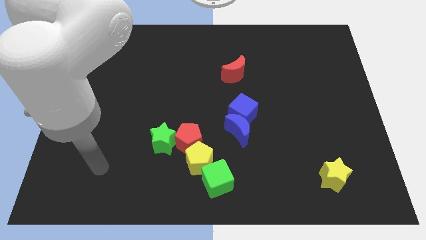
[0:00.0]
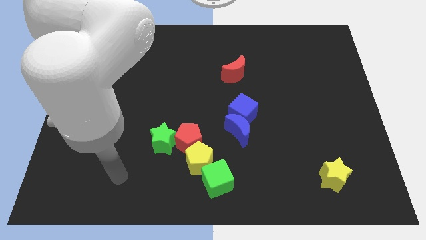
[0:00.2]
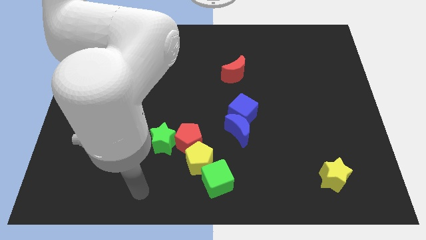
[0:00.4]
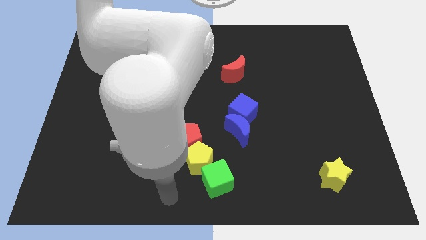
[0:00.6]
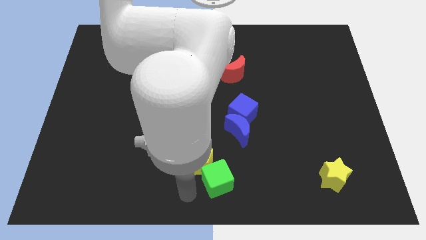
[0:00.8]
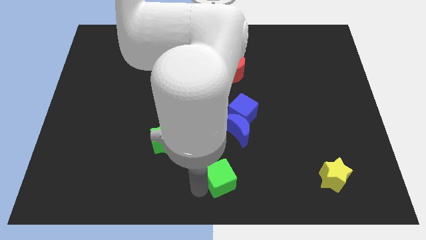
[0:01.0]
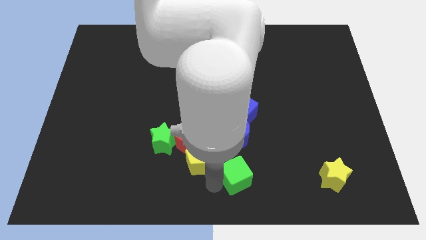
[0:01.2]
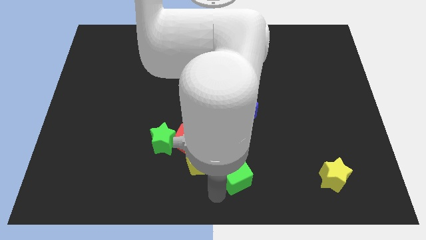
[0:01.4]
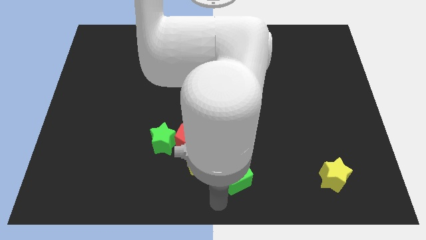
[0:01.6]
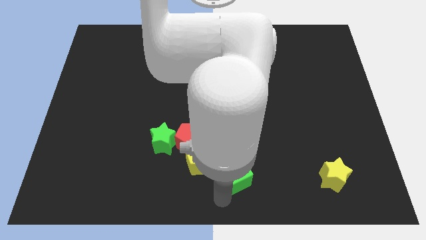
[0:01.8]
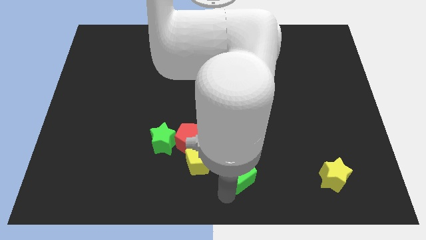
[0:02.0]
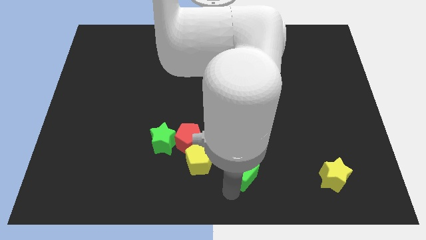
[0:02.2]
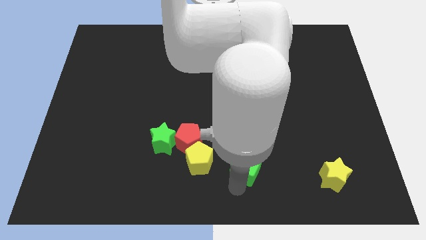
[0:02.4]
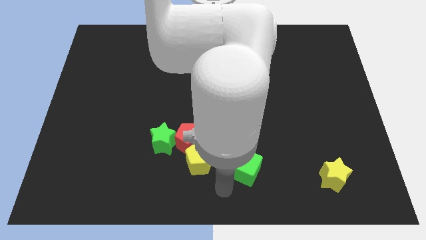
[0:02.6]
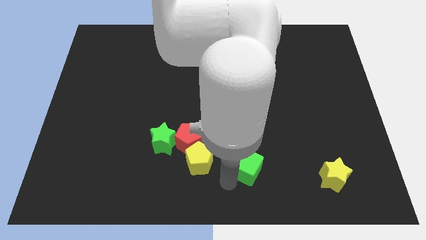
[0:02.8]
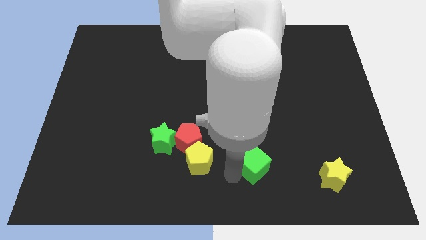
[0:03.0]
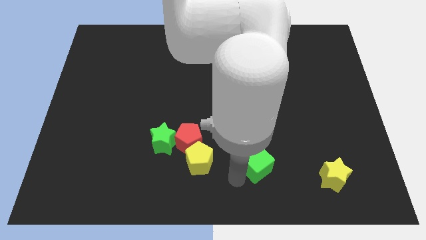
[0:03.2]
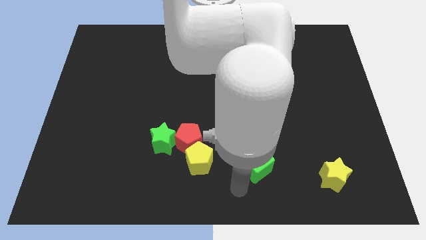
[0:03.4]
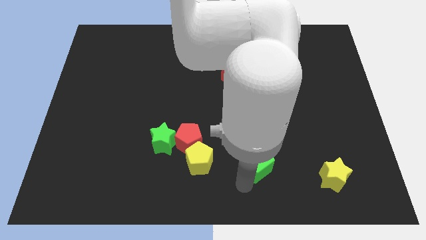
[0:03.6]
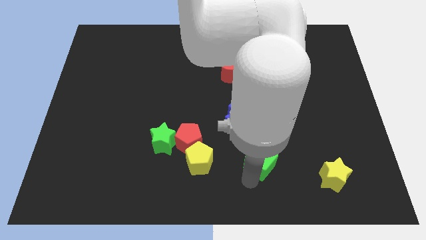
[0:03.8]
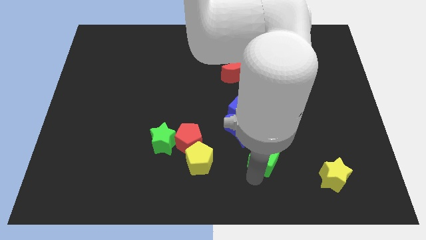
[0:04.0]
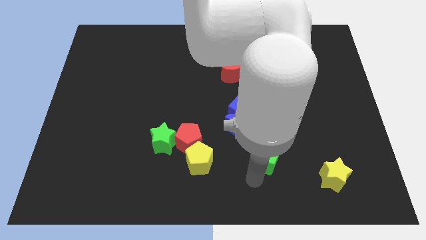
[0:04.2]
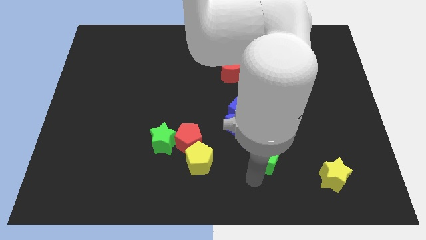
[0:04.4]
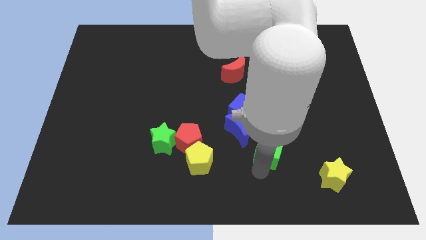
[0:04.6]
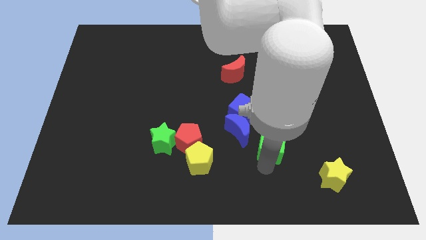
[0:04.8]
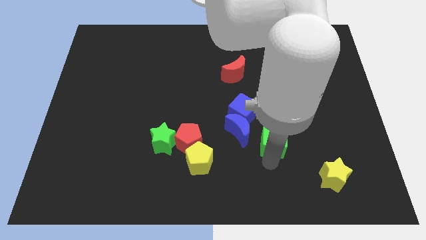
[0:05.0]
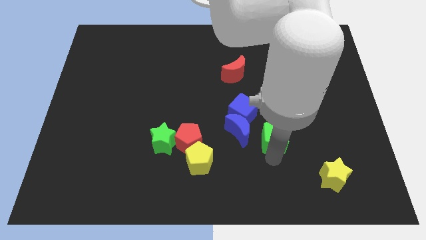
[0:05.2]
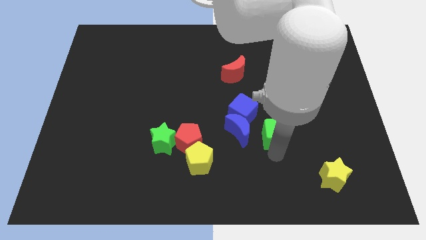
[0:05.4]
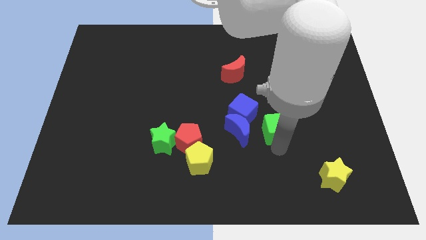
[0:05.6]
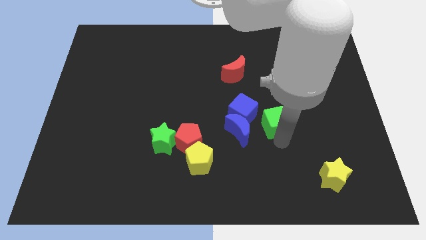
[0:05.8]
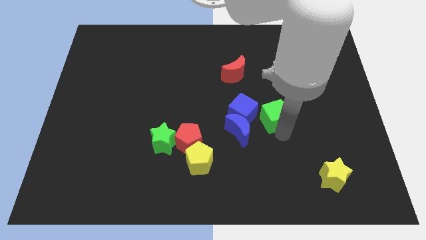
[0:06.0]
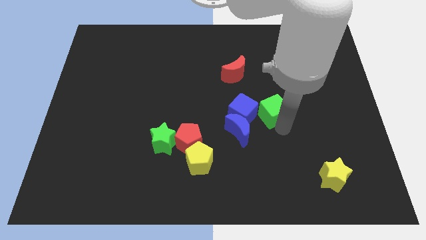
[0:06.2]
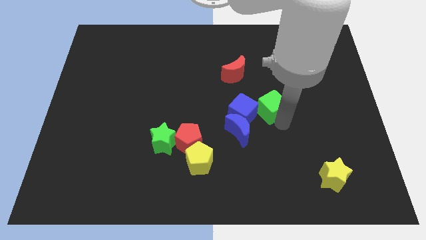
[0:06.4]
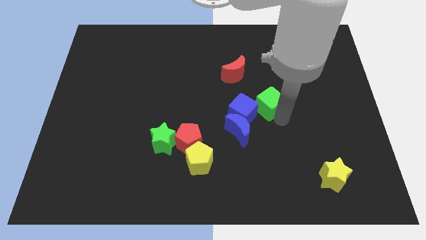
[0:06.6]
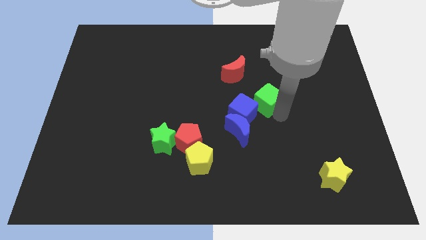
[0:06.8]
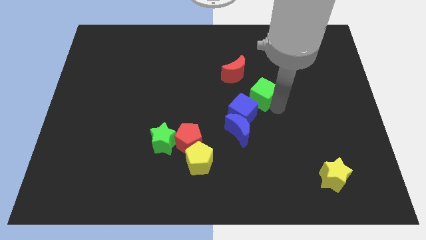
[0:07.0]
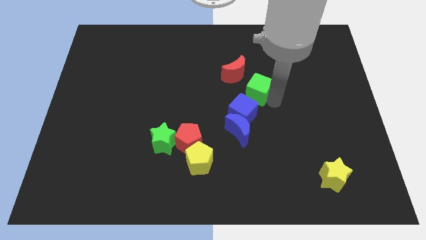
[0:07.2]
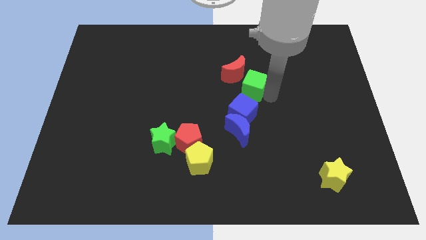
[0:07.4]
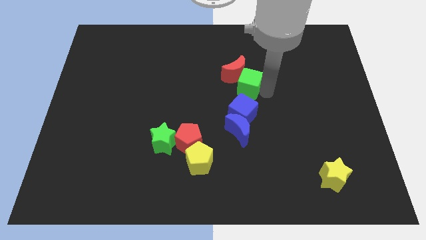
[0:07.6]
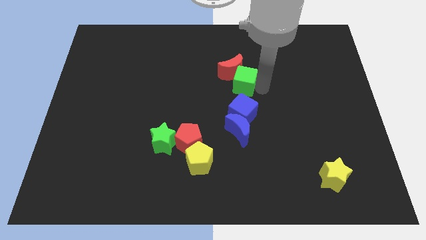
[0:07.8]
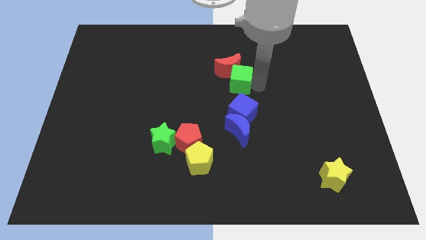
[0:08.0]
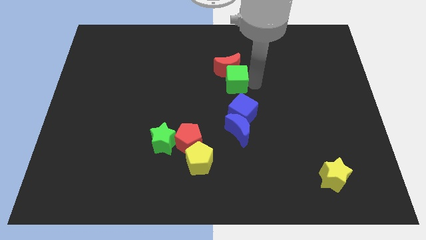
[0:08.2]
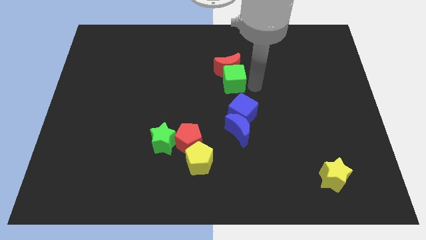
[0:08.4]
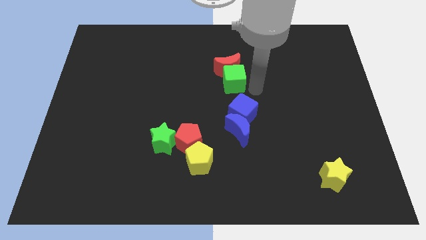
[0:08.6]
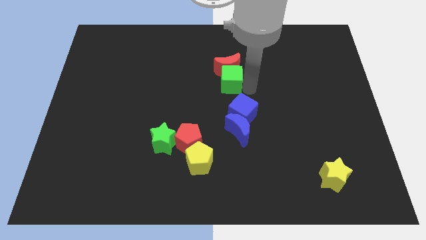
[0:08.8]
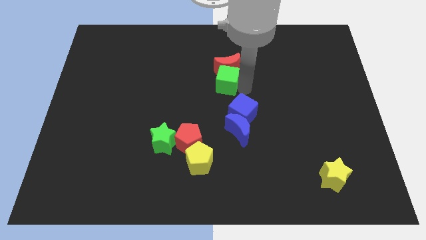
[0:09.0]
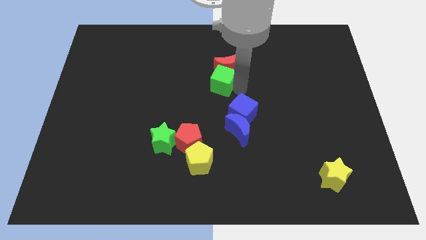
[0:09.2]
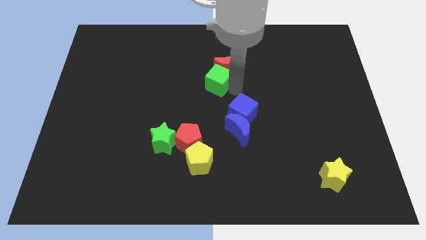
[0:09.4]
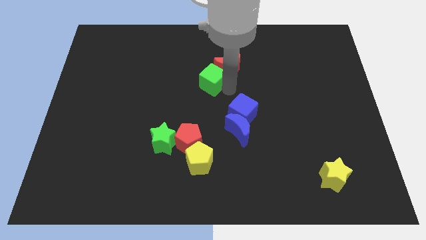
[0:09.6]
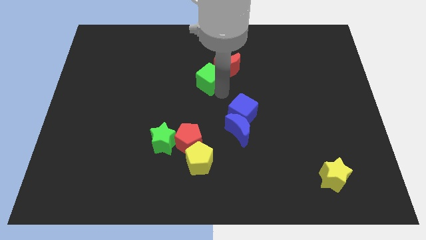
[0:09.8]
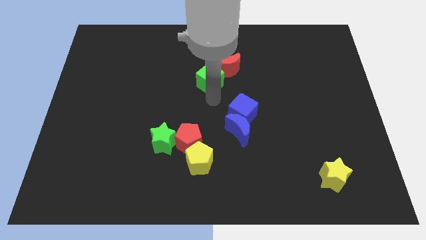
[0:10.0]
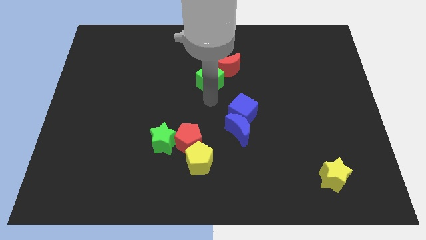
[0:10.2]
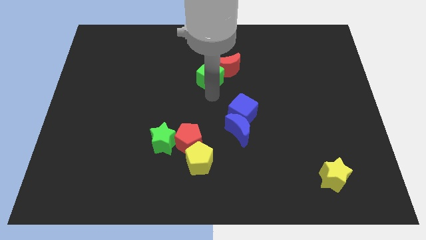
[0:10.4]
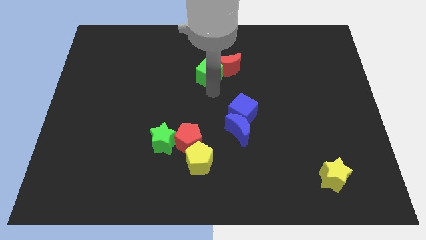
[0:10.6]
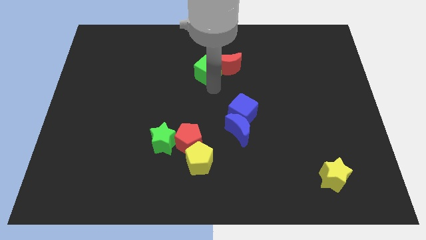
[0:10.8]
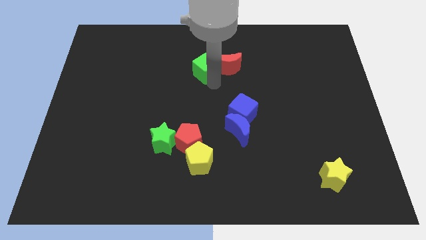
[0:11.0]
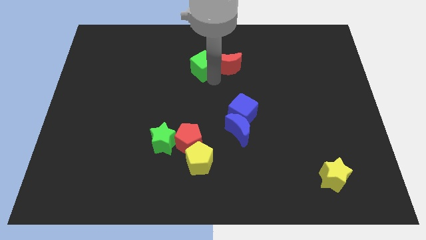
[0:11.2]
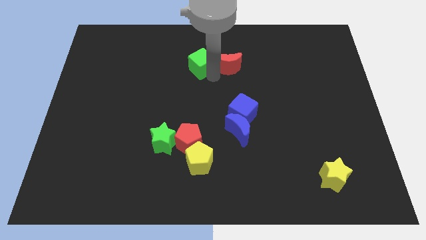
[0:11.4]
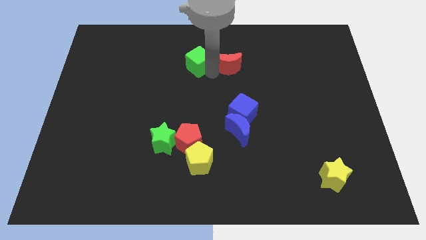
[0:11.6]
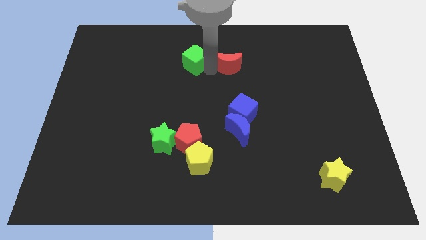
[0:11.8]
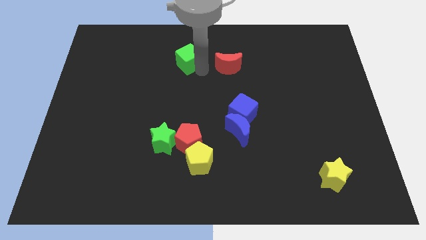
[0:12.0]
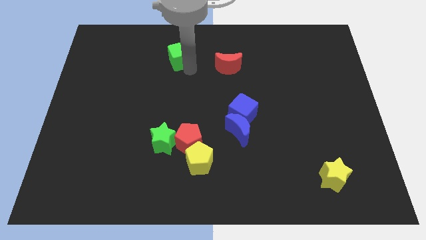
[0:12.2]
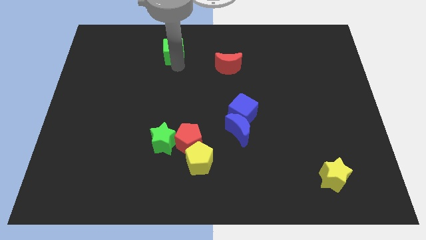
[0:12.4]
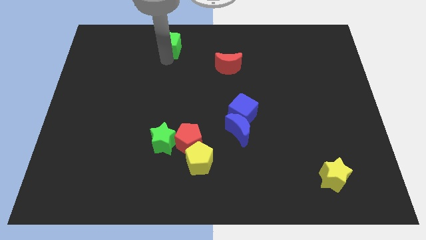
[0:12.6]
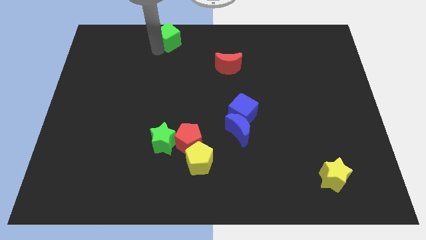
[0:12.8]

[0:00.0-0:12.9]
push the green cube to the top
